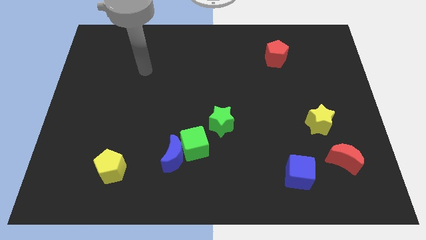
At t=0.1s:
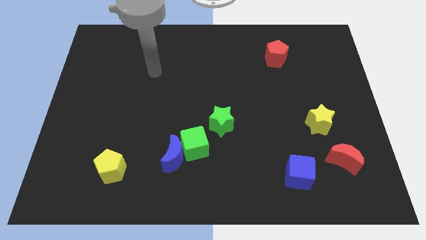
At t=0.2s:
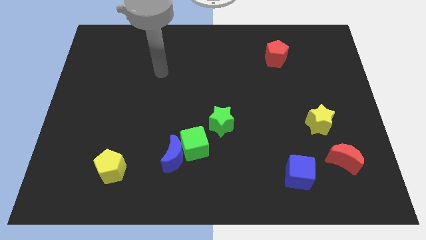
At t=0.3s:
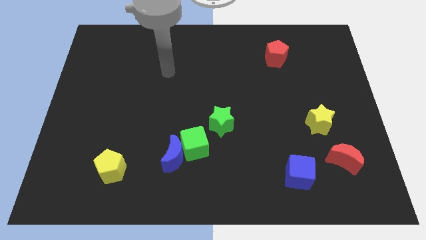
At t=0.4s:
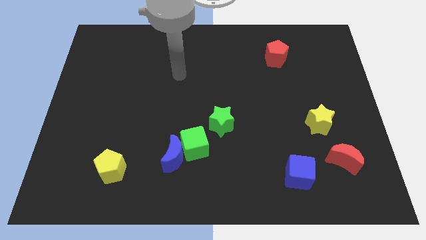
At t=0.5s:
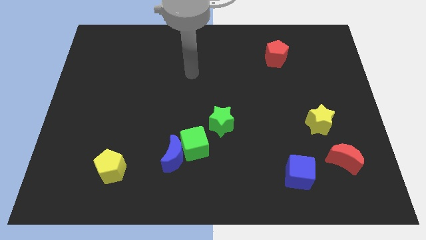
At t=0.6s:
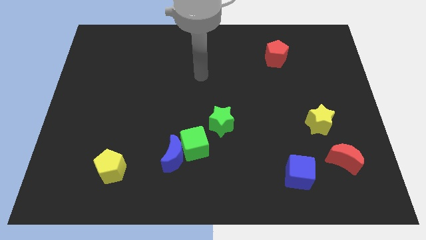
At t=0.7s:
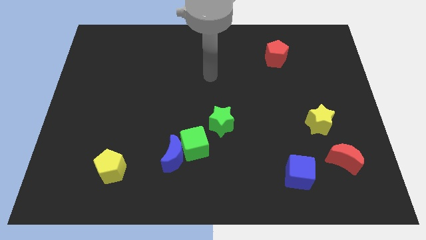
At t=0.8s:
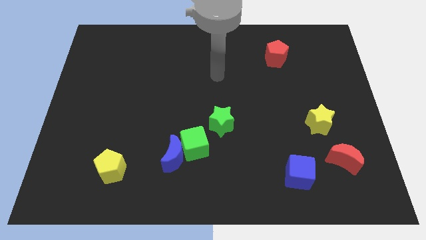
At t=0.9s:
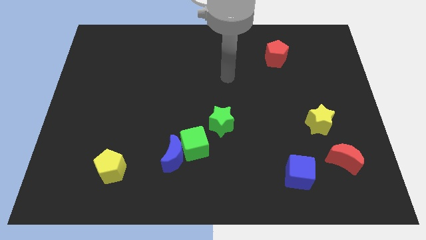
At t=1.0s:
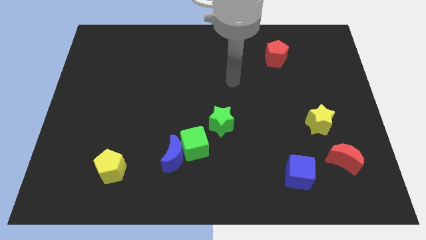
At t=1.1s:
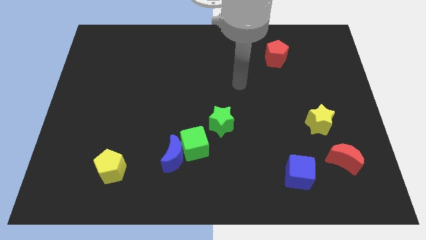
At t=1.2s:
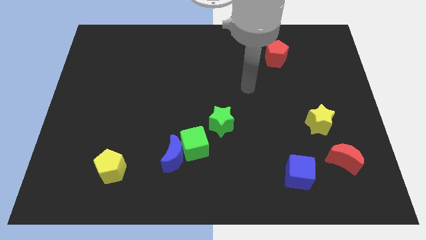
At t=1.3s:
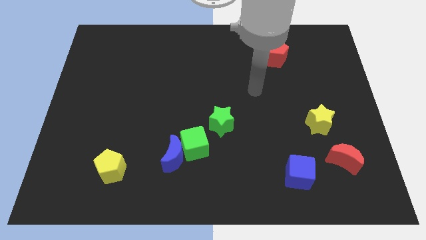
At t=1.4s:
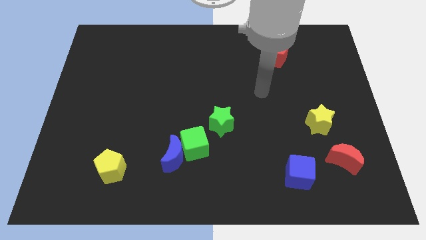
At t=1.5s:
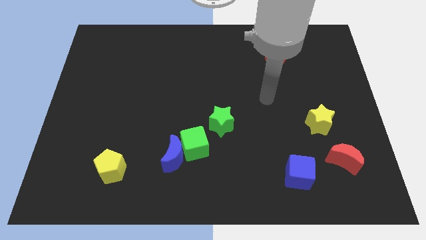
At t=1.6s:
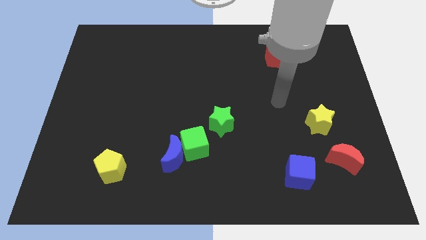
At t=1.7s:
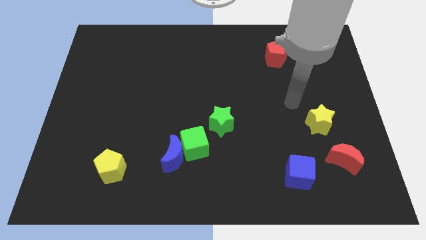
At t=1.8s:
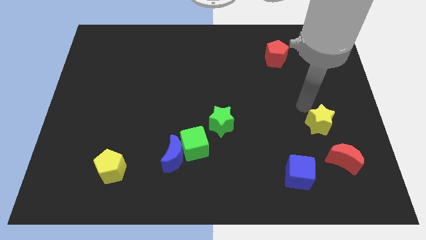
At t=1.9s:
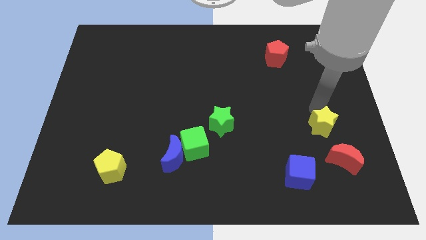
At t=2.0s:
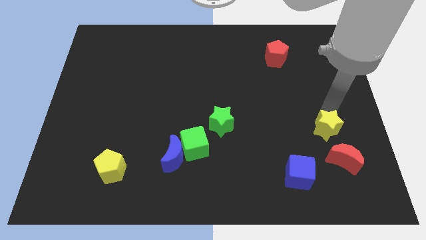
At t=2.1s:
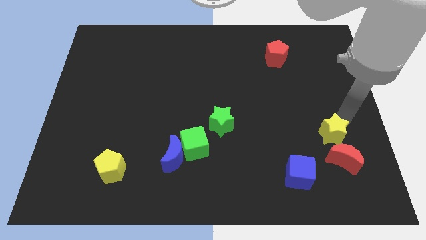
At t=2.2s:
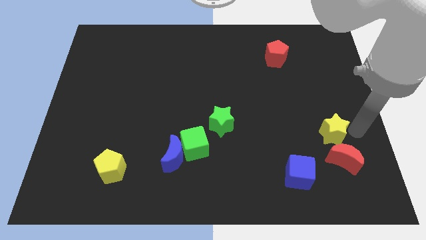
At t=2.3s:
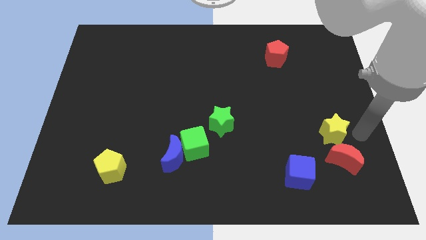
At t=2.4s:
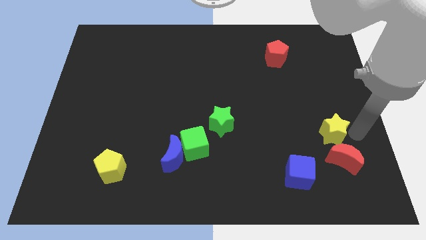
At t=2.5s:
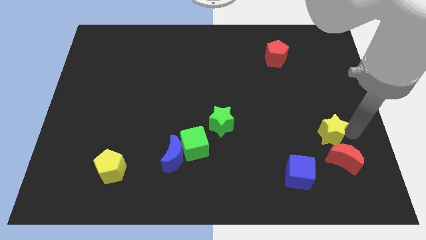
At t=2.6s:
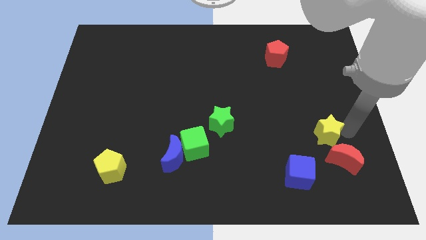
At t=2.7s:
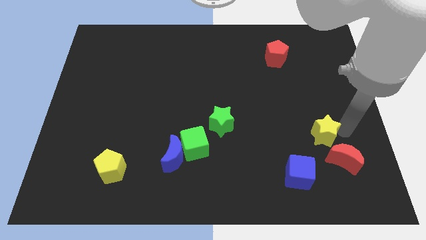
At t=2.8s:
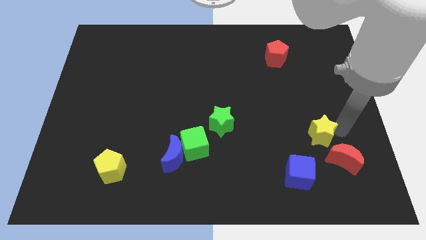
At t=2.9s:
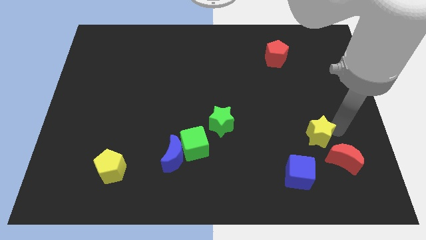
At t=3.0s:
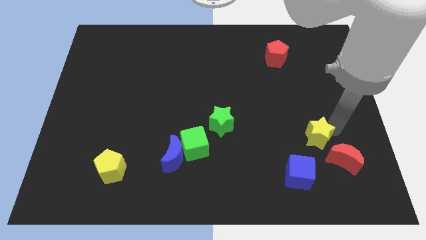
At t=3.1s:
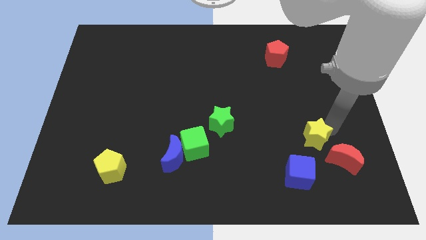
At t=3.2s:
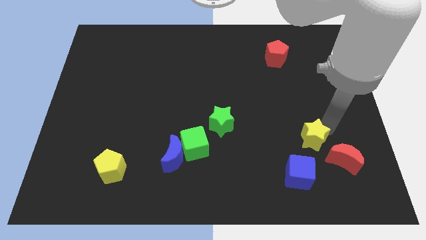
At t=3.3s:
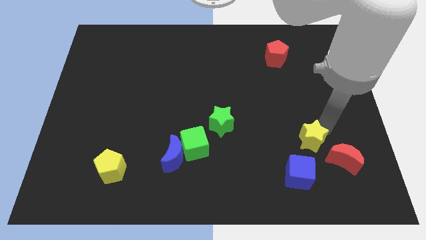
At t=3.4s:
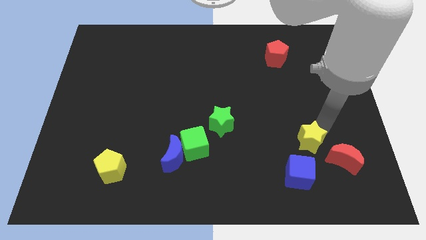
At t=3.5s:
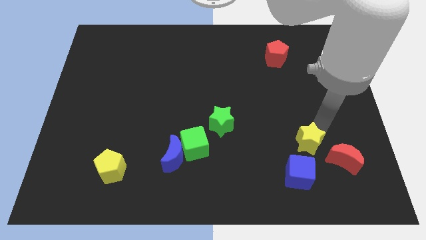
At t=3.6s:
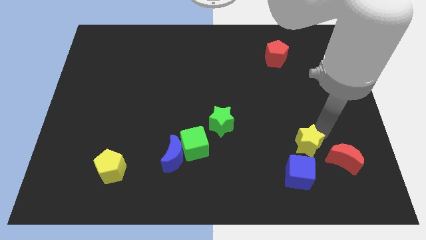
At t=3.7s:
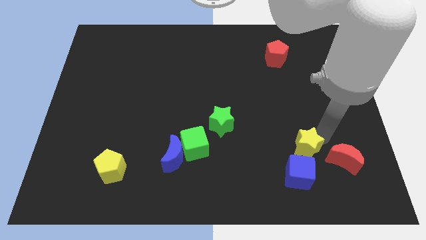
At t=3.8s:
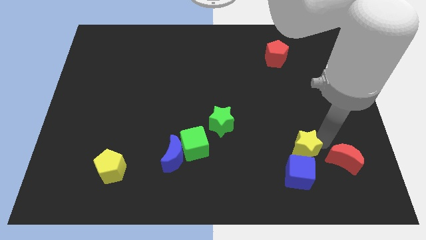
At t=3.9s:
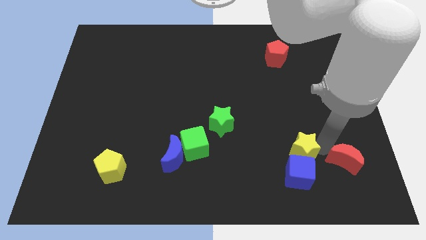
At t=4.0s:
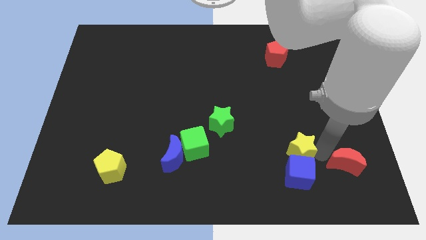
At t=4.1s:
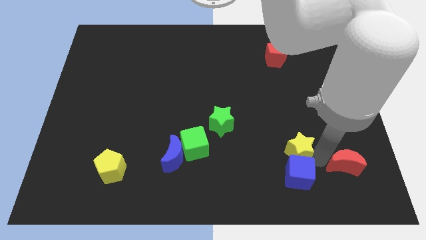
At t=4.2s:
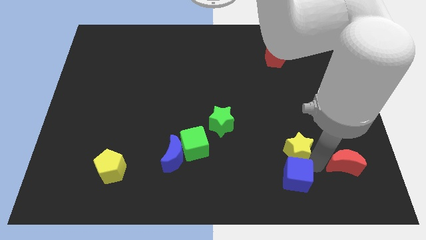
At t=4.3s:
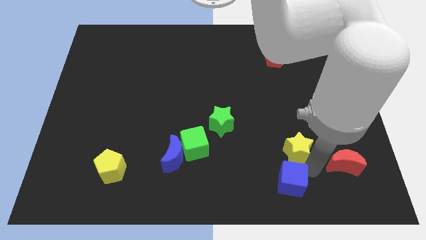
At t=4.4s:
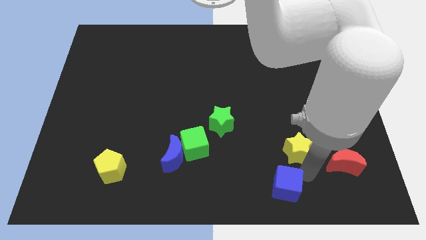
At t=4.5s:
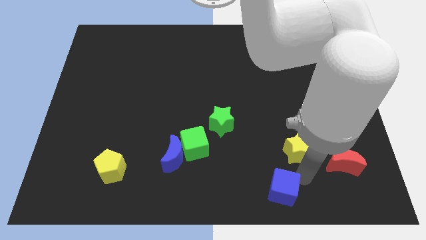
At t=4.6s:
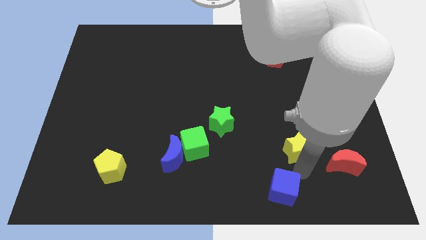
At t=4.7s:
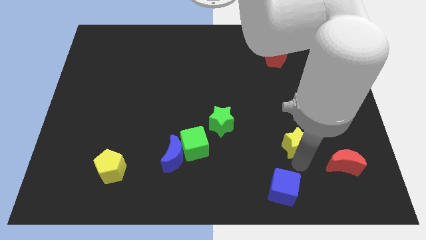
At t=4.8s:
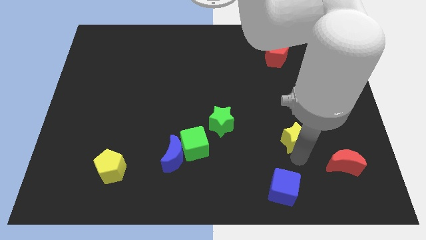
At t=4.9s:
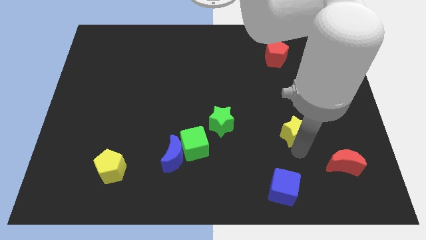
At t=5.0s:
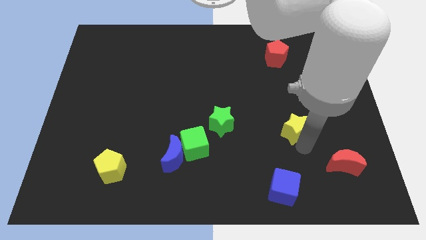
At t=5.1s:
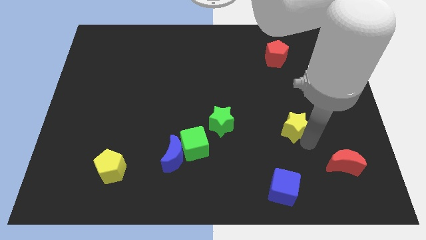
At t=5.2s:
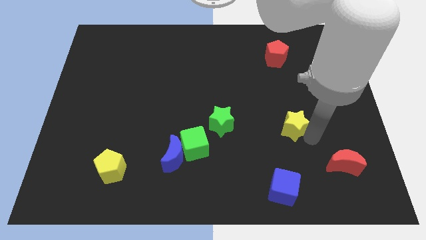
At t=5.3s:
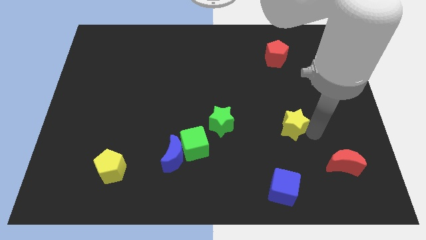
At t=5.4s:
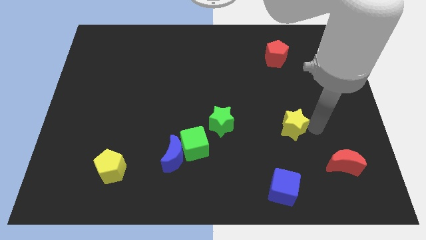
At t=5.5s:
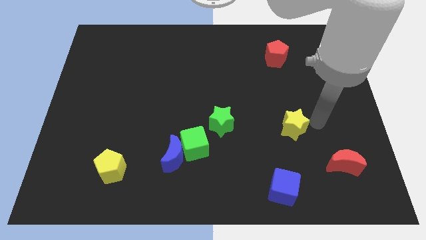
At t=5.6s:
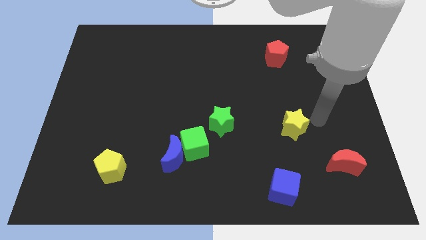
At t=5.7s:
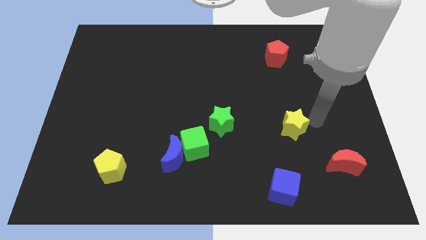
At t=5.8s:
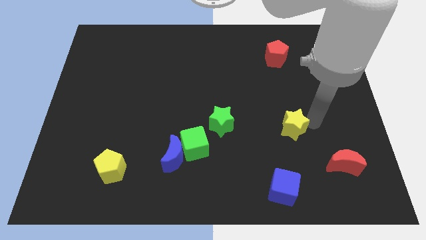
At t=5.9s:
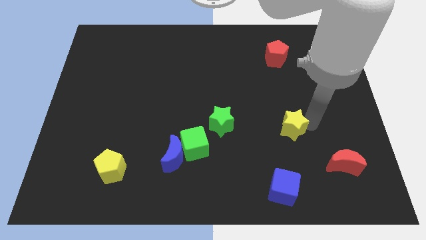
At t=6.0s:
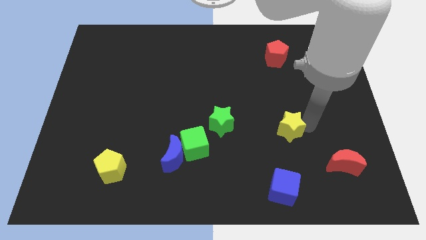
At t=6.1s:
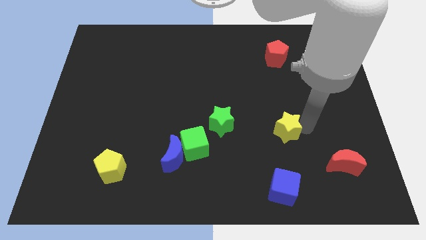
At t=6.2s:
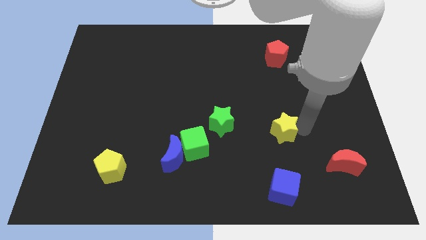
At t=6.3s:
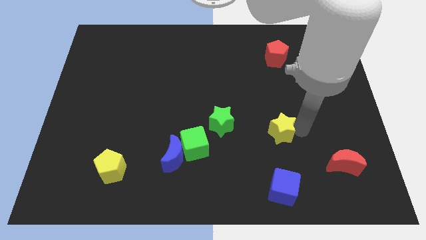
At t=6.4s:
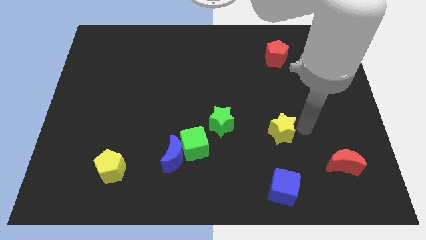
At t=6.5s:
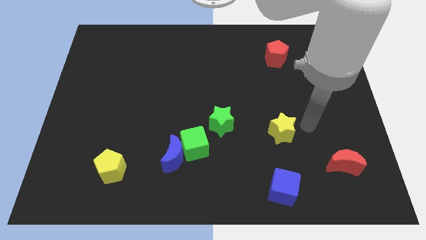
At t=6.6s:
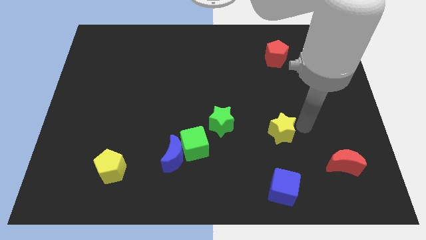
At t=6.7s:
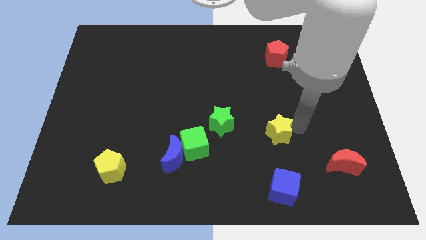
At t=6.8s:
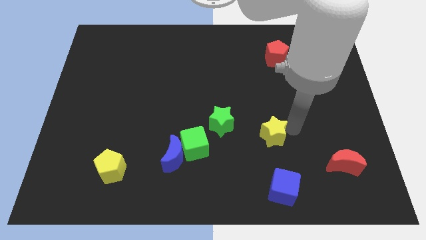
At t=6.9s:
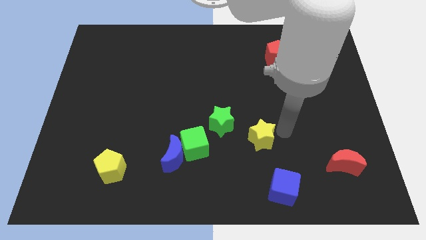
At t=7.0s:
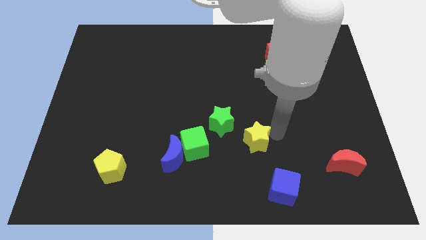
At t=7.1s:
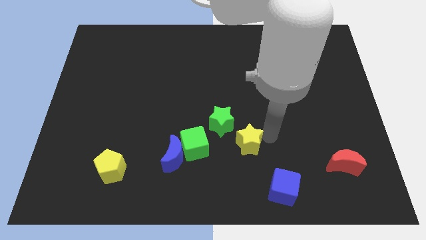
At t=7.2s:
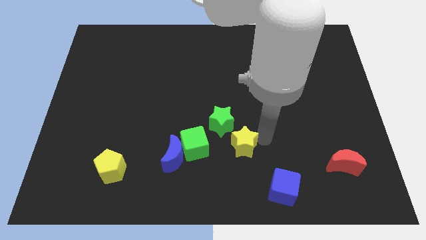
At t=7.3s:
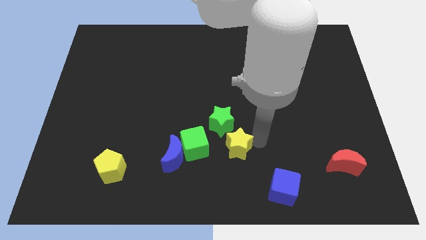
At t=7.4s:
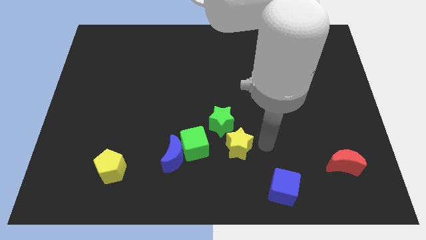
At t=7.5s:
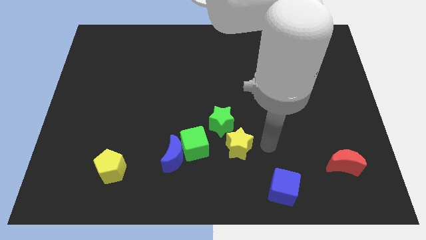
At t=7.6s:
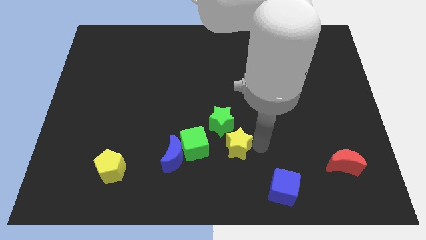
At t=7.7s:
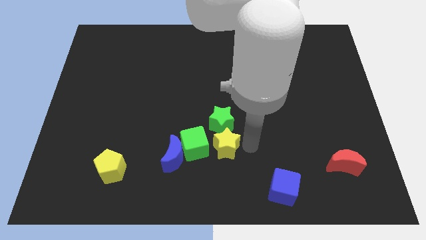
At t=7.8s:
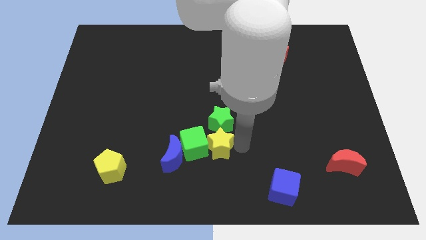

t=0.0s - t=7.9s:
push the yellow star to the green cube
